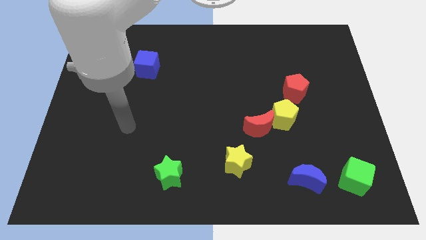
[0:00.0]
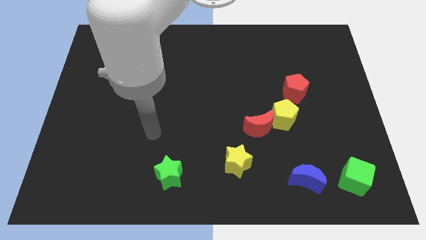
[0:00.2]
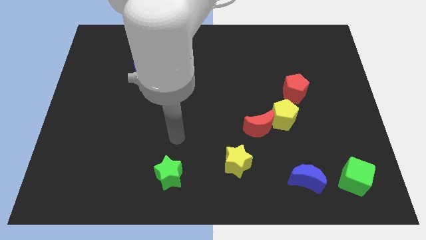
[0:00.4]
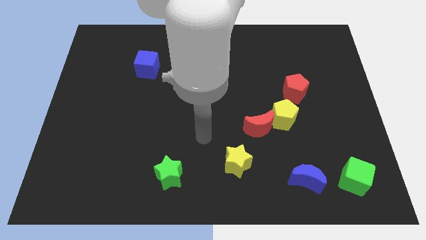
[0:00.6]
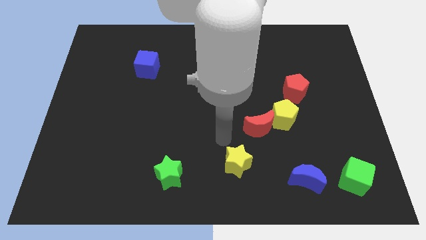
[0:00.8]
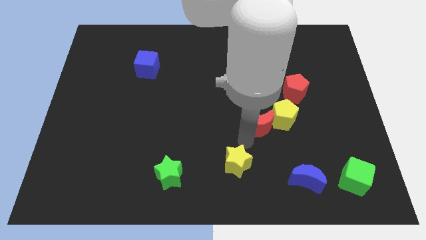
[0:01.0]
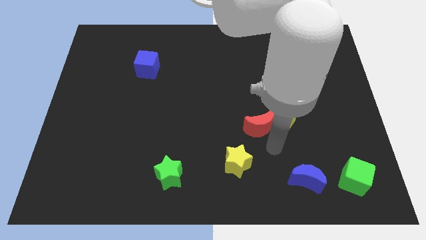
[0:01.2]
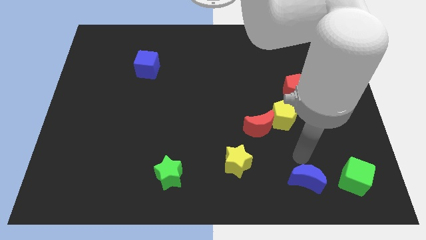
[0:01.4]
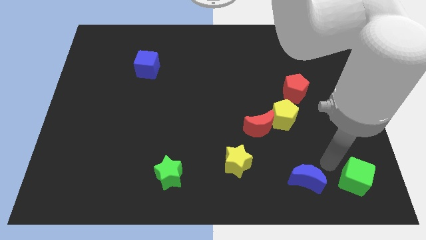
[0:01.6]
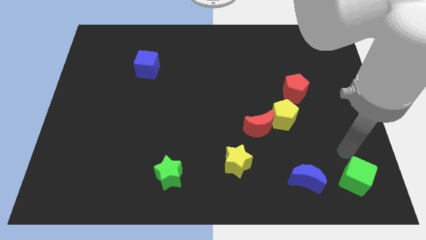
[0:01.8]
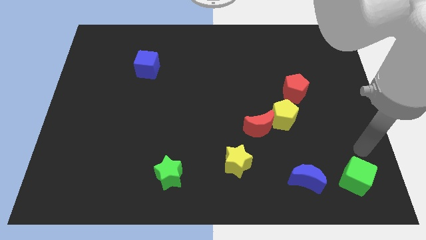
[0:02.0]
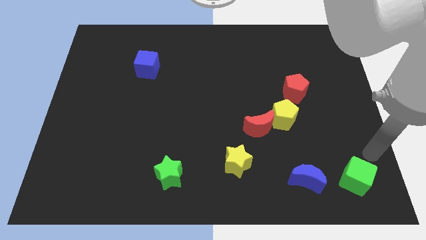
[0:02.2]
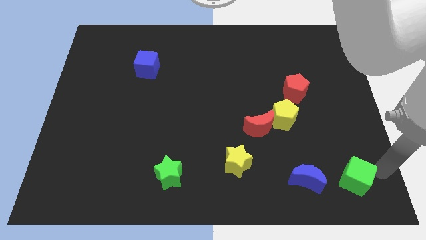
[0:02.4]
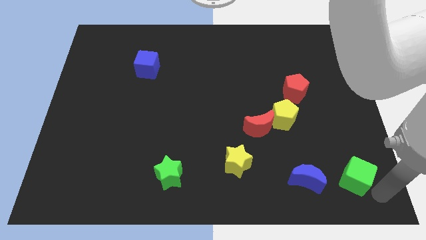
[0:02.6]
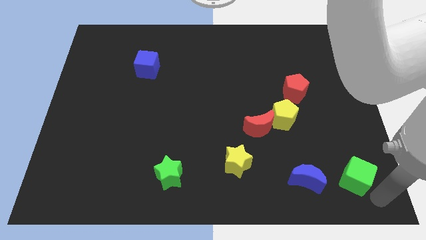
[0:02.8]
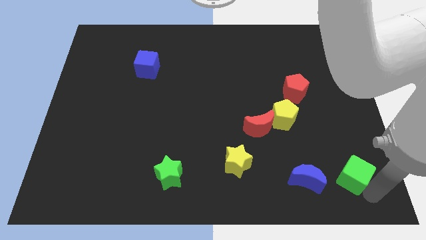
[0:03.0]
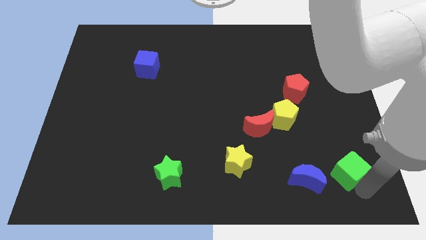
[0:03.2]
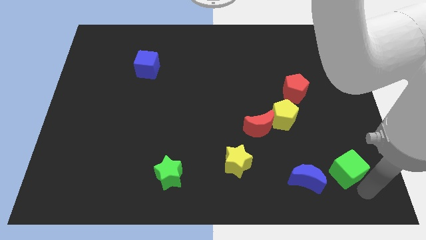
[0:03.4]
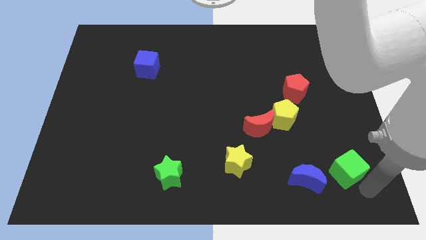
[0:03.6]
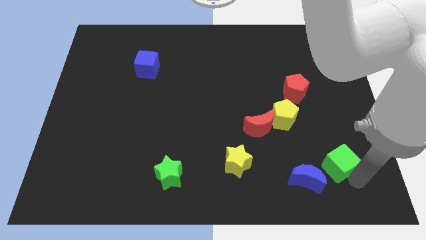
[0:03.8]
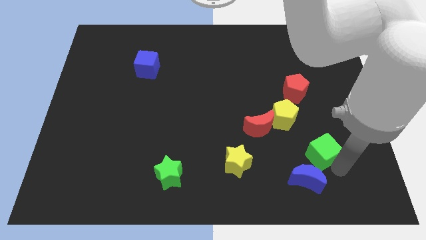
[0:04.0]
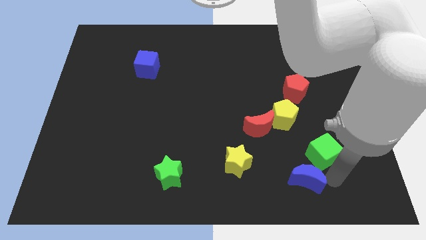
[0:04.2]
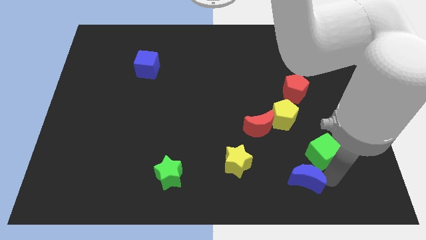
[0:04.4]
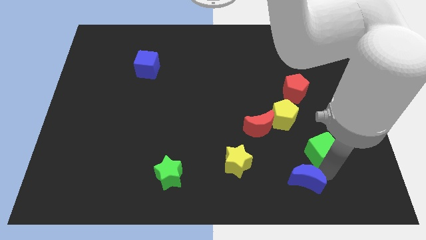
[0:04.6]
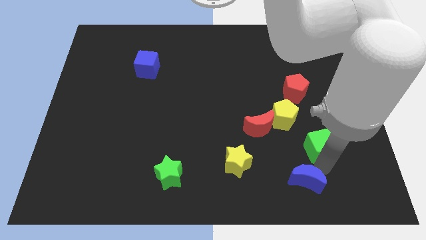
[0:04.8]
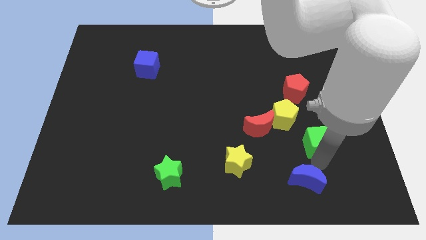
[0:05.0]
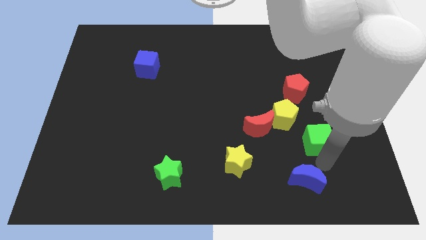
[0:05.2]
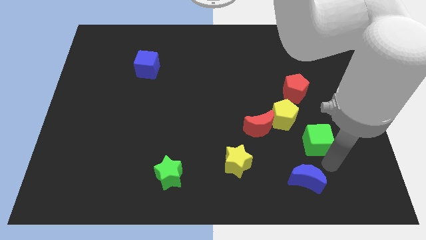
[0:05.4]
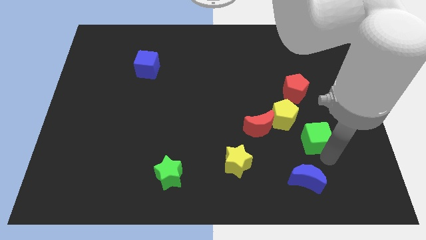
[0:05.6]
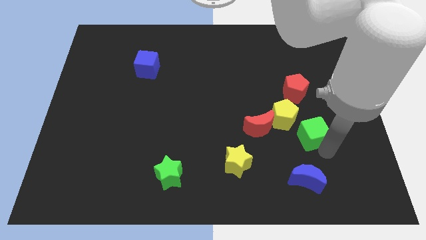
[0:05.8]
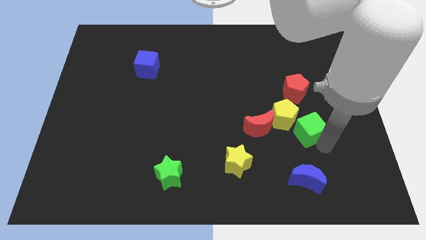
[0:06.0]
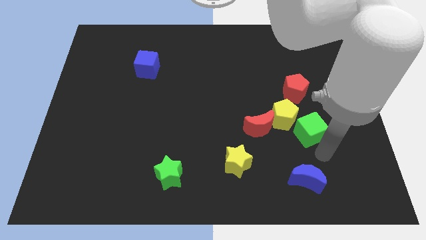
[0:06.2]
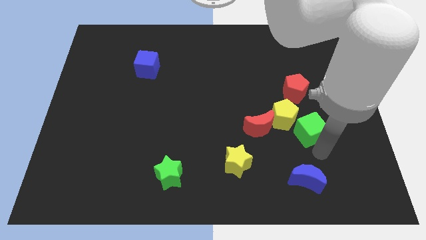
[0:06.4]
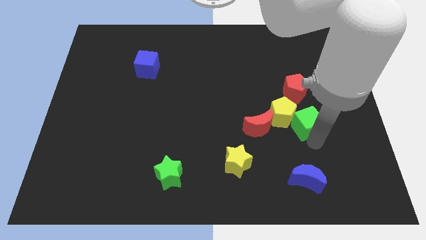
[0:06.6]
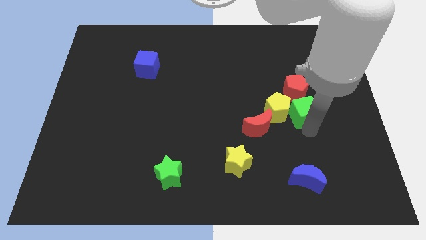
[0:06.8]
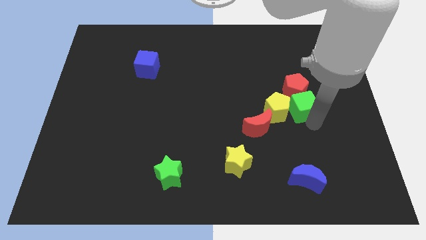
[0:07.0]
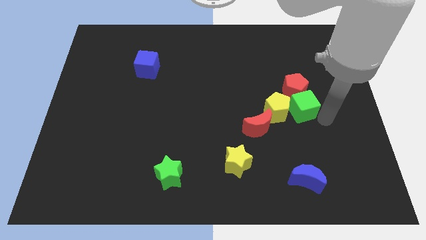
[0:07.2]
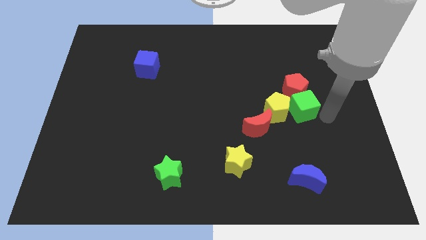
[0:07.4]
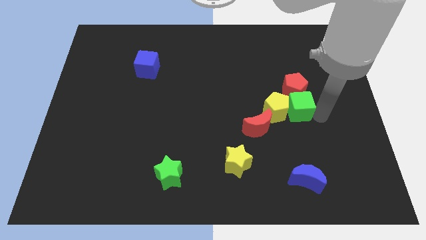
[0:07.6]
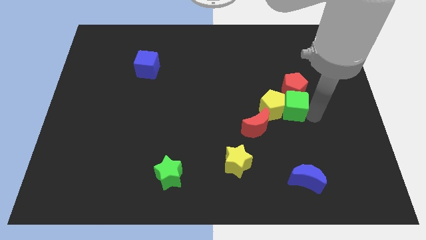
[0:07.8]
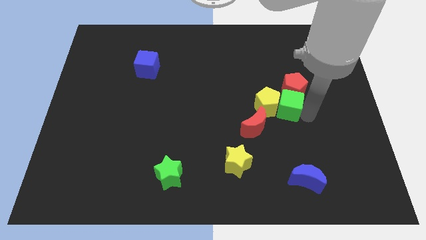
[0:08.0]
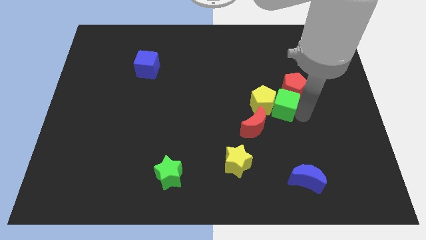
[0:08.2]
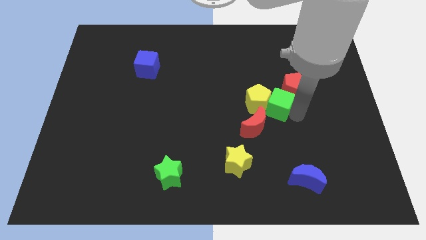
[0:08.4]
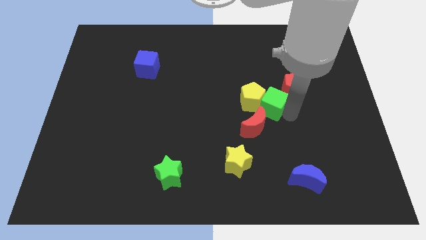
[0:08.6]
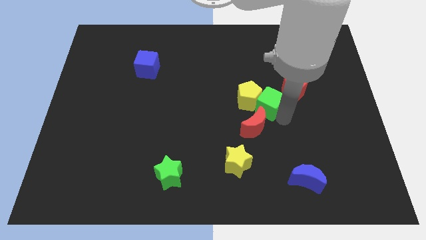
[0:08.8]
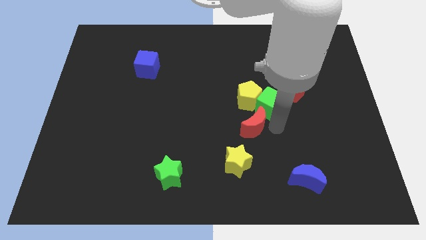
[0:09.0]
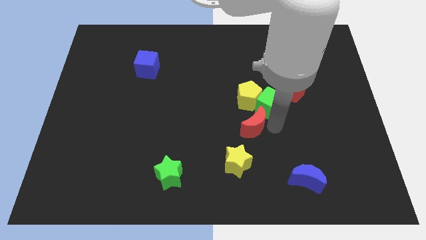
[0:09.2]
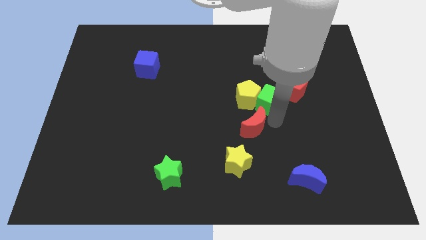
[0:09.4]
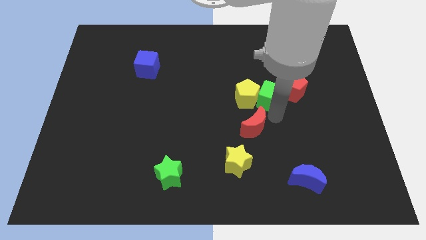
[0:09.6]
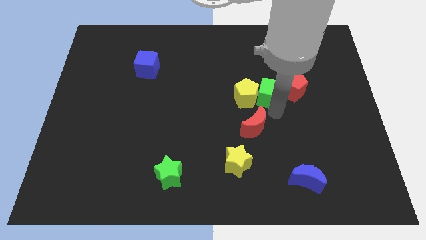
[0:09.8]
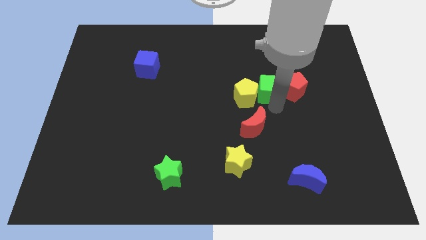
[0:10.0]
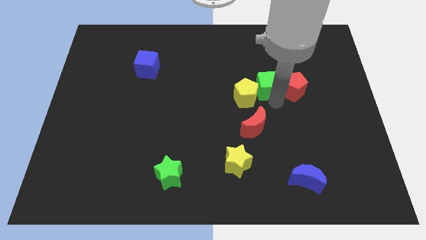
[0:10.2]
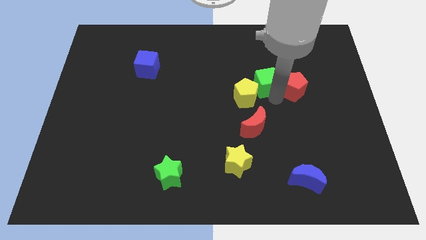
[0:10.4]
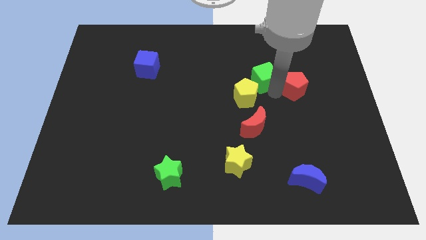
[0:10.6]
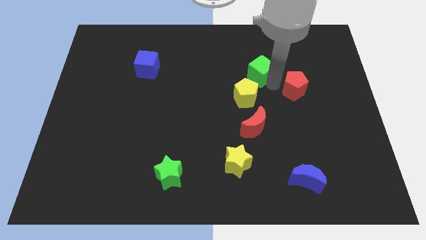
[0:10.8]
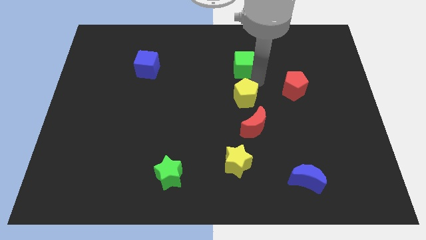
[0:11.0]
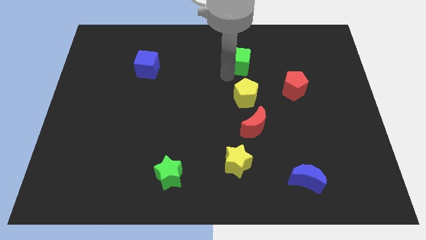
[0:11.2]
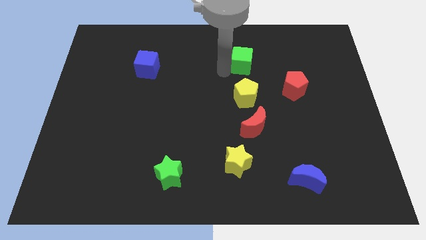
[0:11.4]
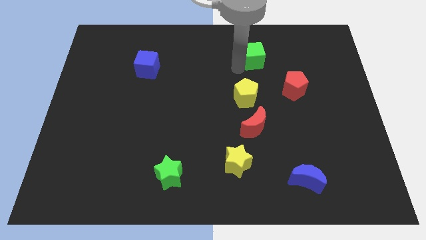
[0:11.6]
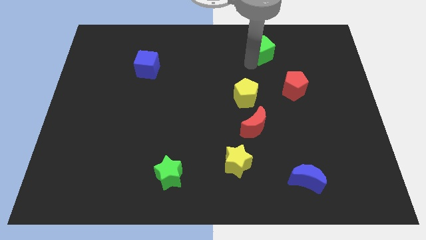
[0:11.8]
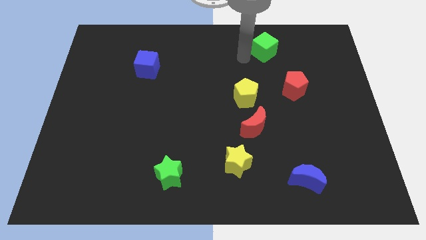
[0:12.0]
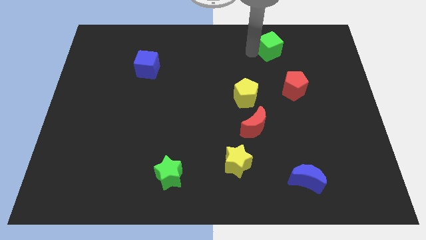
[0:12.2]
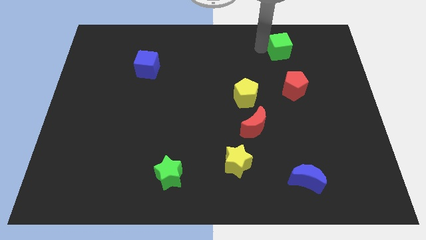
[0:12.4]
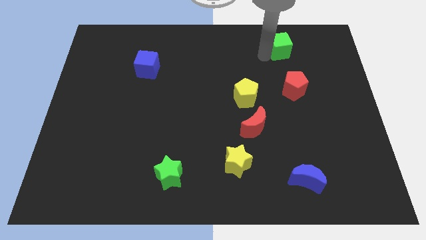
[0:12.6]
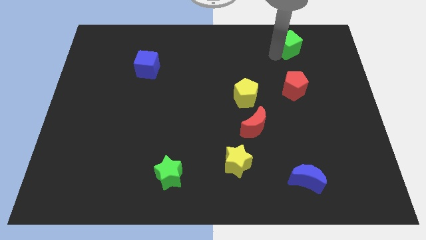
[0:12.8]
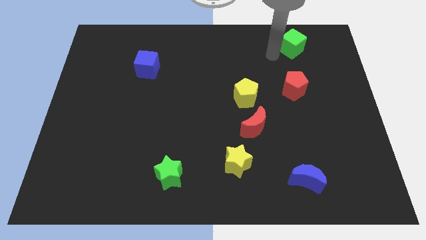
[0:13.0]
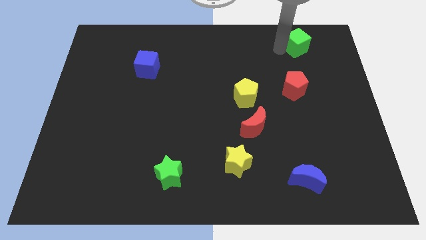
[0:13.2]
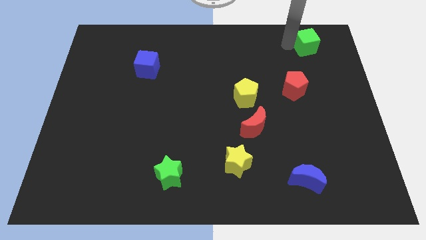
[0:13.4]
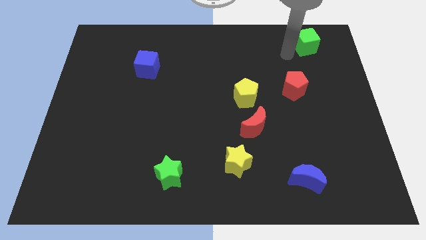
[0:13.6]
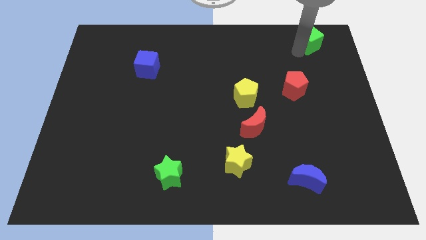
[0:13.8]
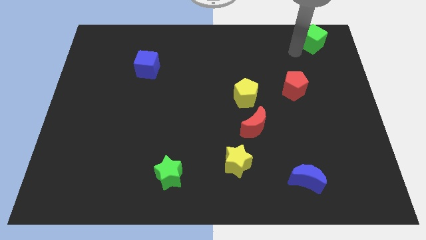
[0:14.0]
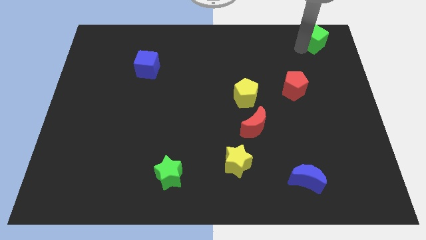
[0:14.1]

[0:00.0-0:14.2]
put the green cube to the top right of the board
